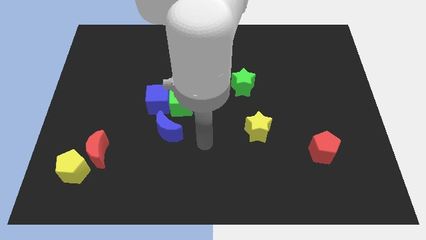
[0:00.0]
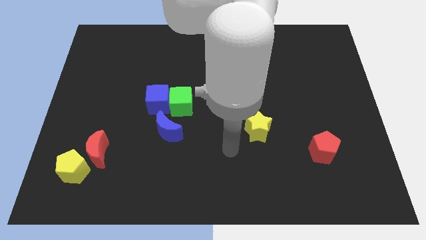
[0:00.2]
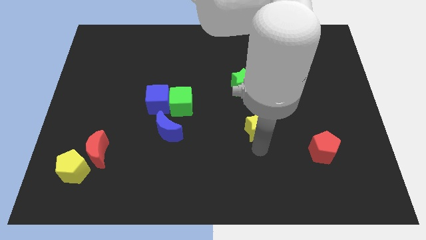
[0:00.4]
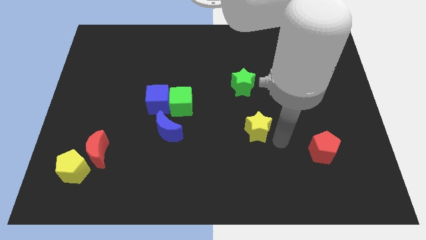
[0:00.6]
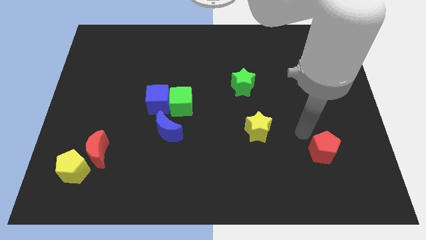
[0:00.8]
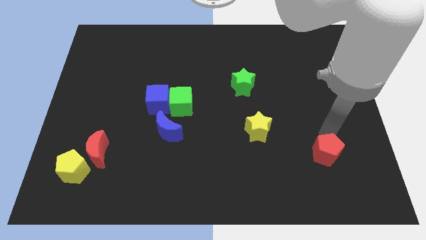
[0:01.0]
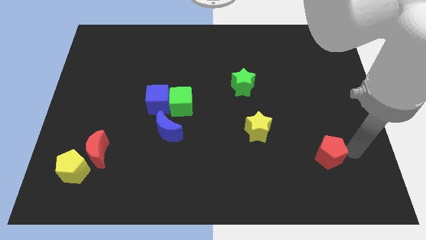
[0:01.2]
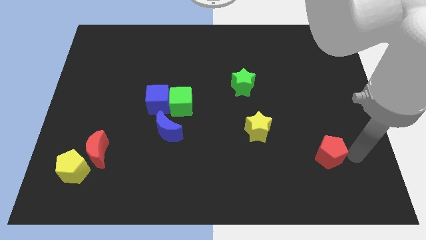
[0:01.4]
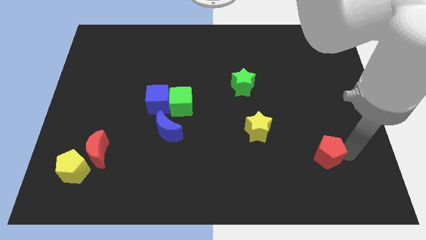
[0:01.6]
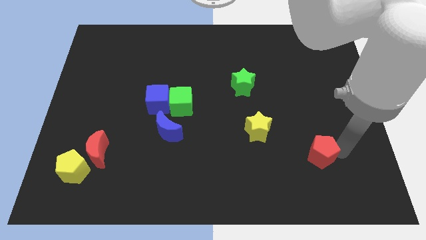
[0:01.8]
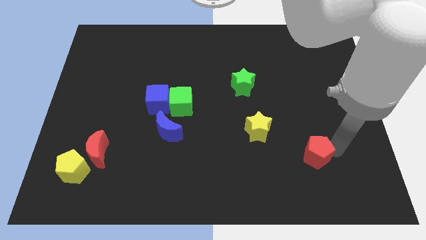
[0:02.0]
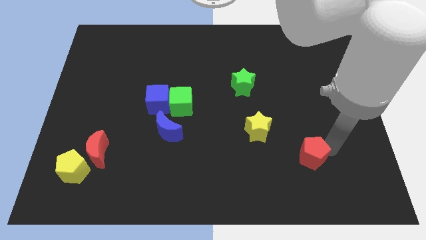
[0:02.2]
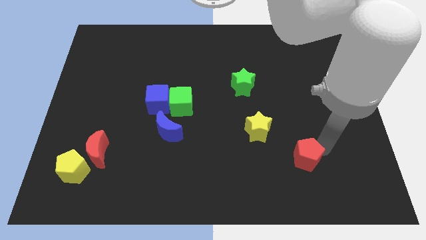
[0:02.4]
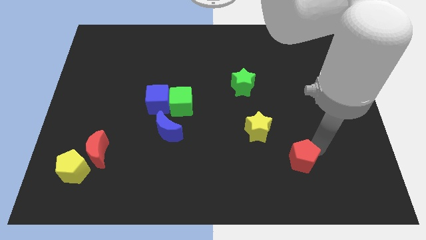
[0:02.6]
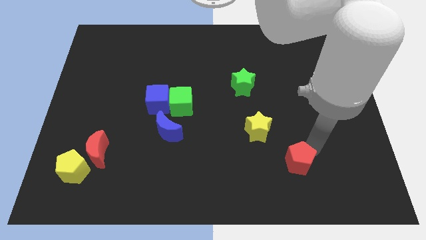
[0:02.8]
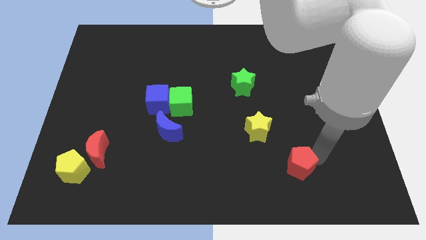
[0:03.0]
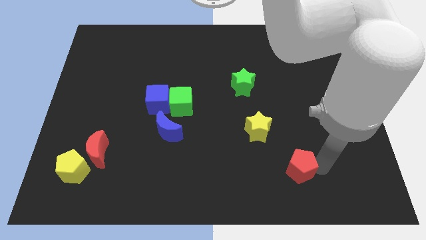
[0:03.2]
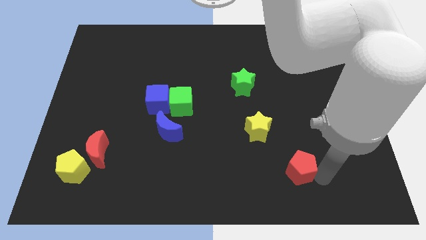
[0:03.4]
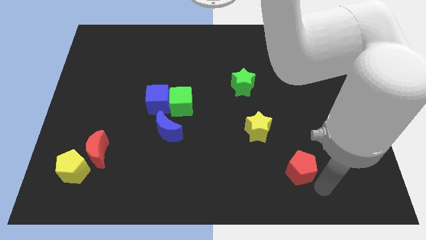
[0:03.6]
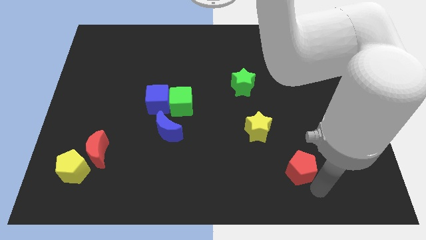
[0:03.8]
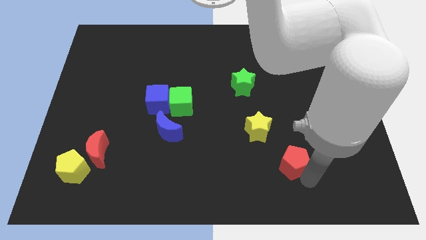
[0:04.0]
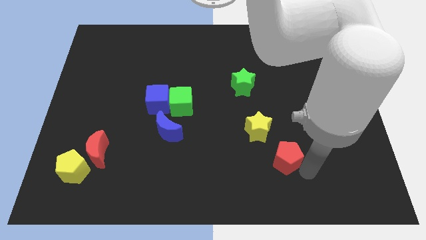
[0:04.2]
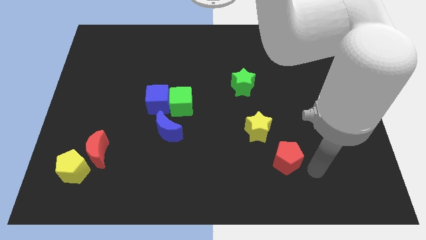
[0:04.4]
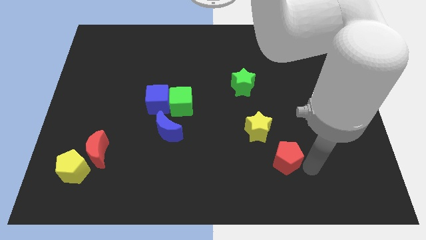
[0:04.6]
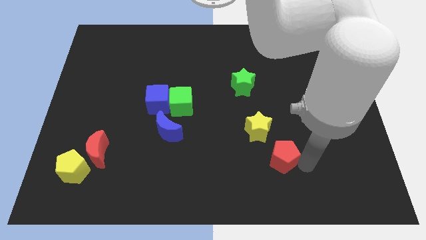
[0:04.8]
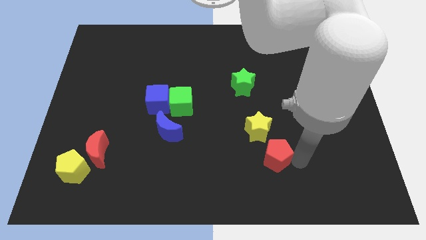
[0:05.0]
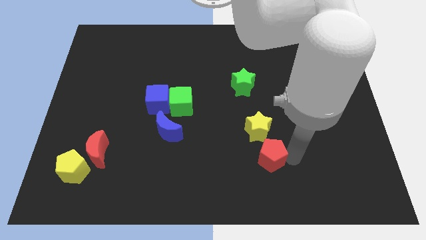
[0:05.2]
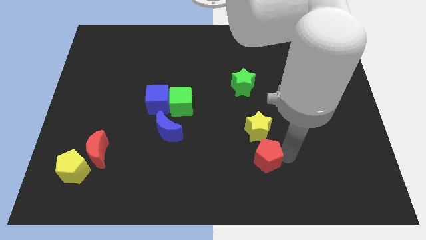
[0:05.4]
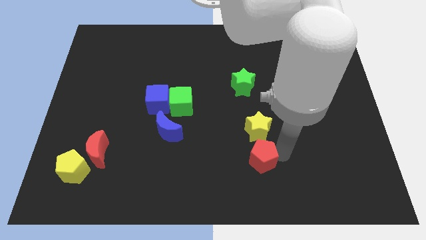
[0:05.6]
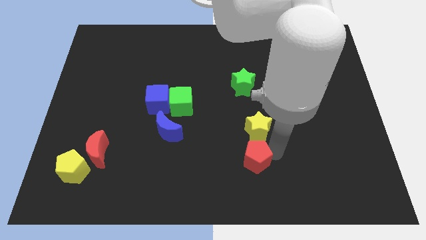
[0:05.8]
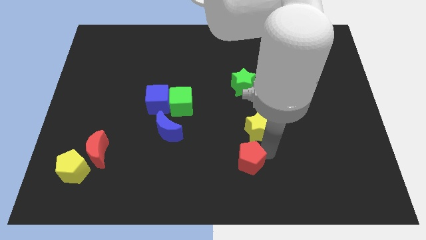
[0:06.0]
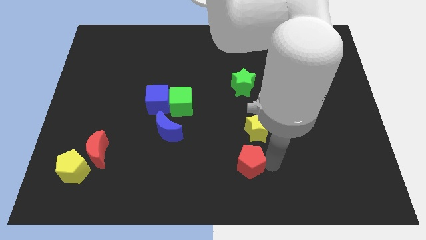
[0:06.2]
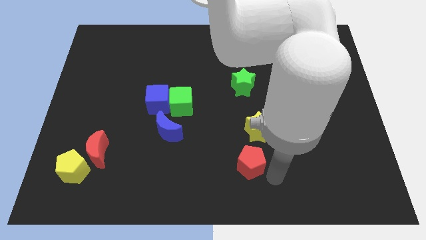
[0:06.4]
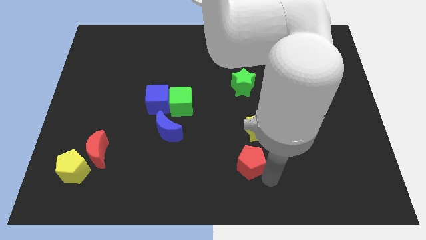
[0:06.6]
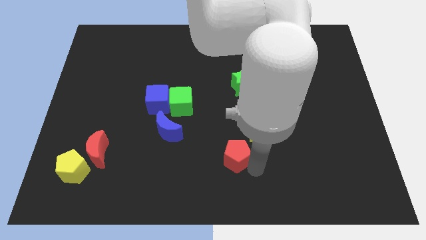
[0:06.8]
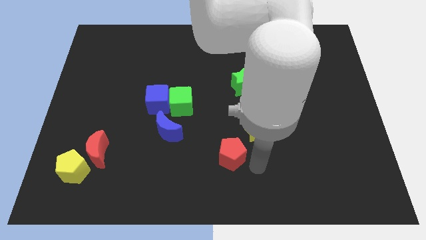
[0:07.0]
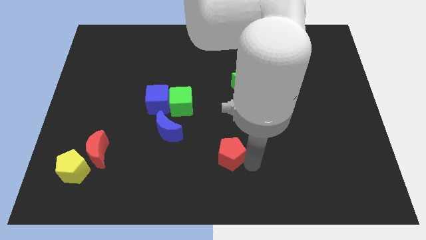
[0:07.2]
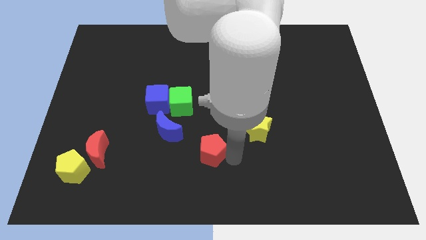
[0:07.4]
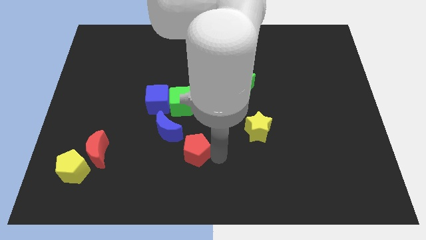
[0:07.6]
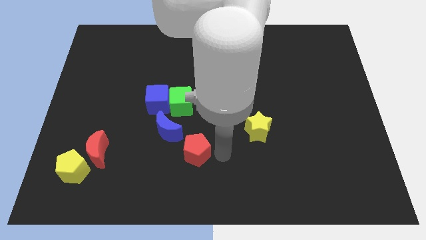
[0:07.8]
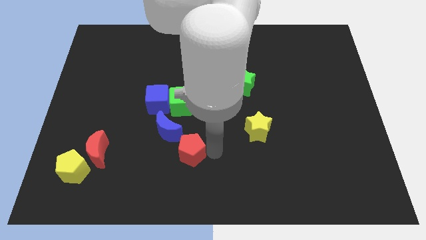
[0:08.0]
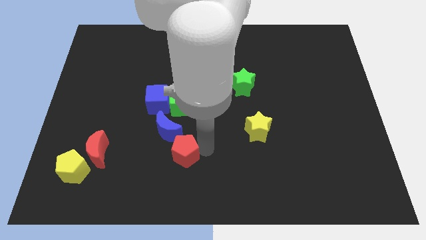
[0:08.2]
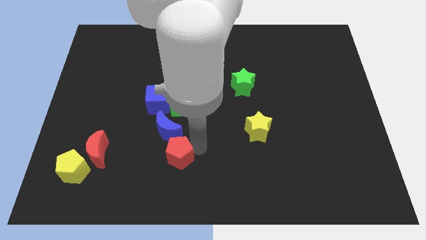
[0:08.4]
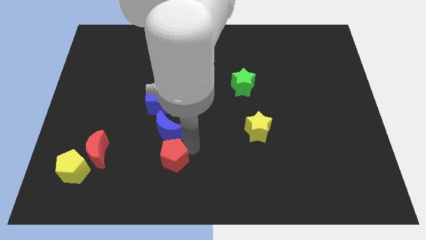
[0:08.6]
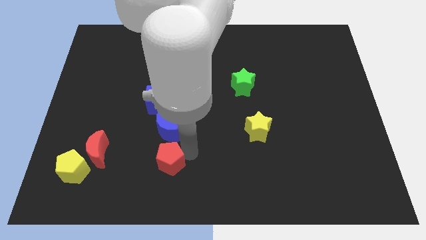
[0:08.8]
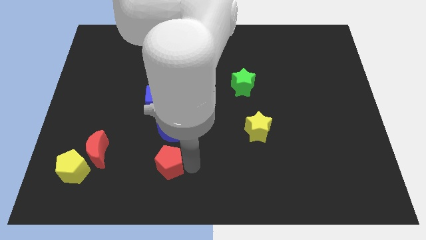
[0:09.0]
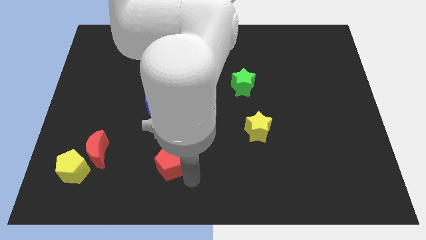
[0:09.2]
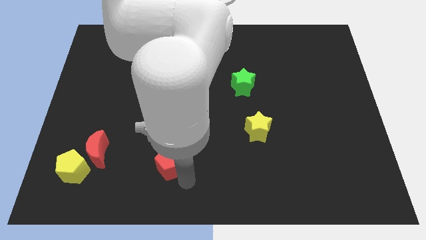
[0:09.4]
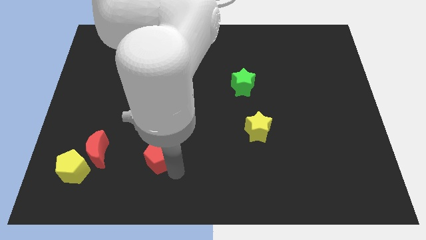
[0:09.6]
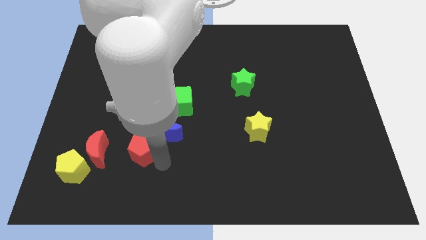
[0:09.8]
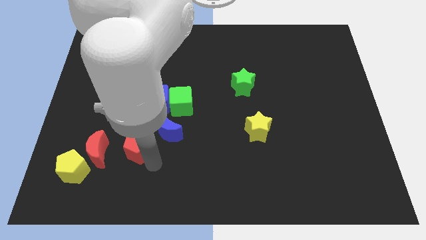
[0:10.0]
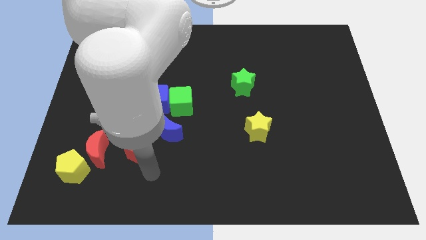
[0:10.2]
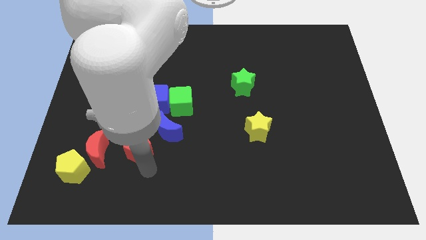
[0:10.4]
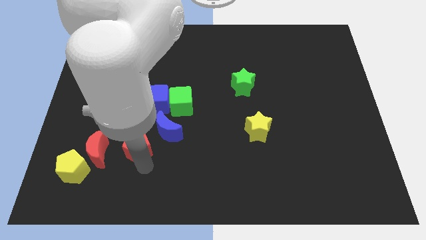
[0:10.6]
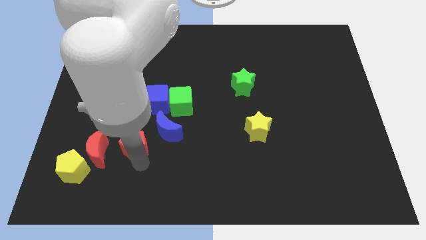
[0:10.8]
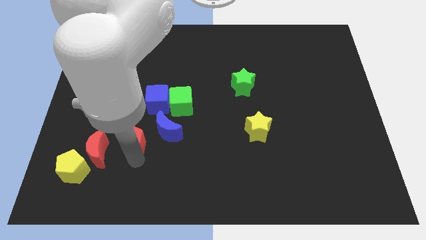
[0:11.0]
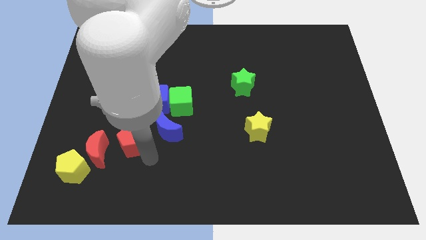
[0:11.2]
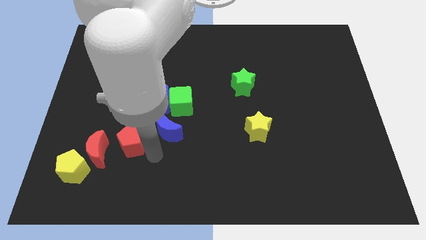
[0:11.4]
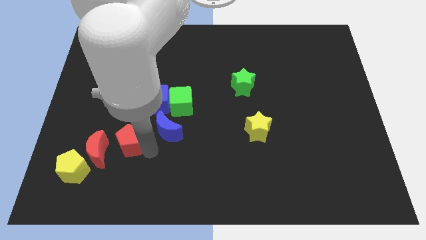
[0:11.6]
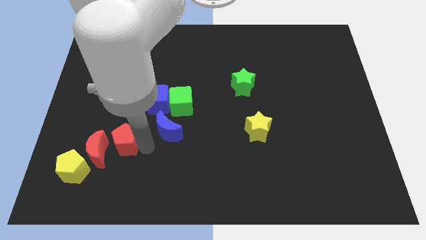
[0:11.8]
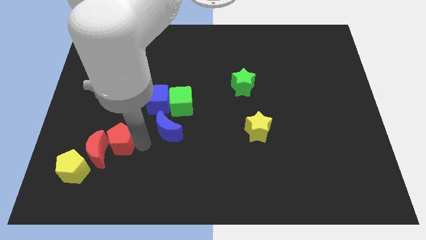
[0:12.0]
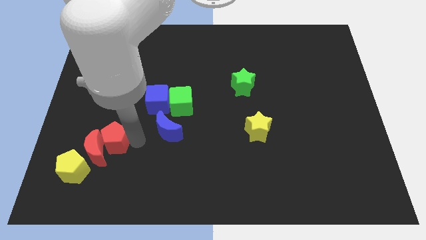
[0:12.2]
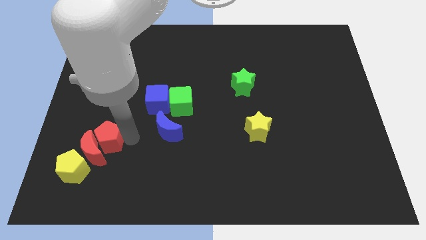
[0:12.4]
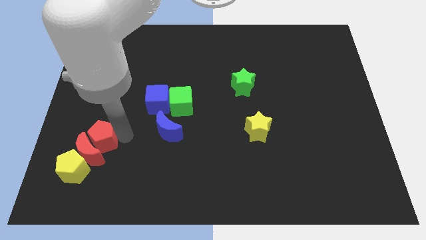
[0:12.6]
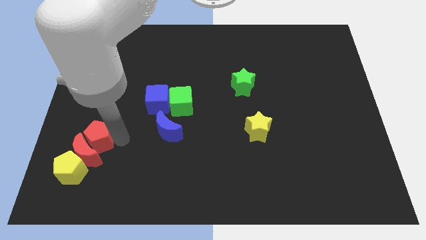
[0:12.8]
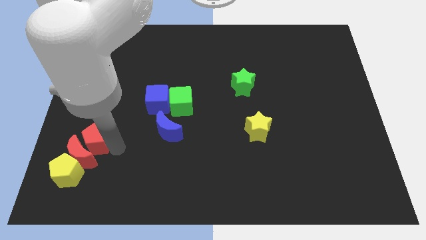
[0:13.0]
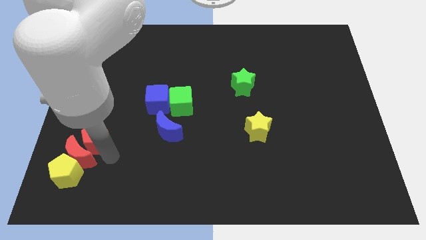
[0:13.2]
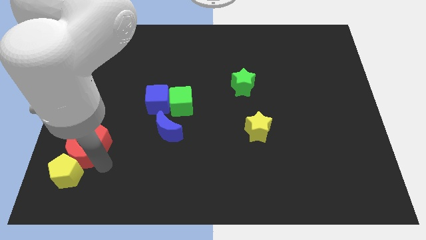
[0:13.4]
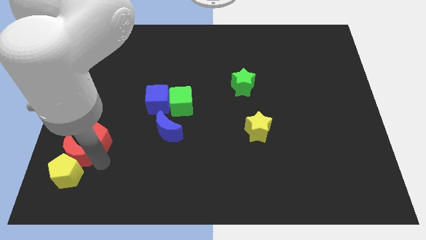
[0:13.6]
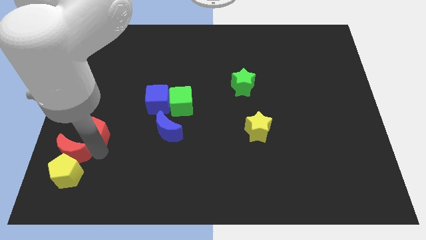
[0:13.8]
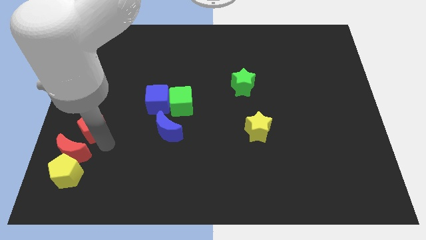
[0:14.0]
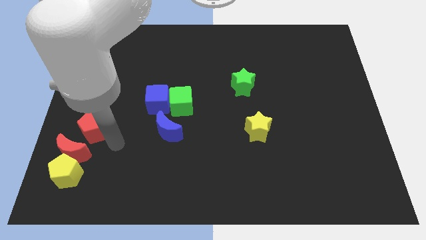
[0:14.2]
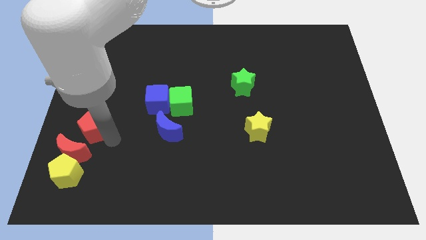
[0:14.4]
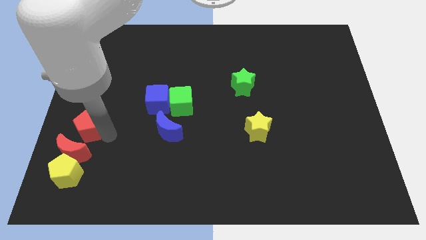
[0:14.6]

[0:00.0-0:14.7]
slide the red pentagon to the left side
